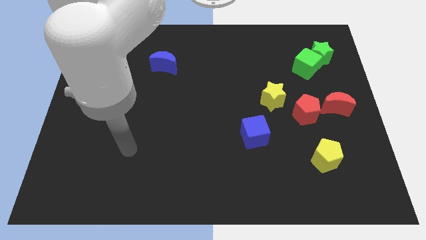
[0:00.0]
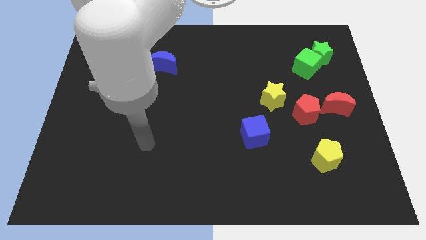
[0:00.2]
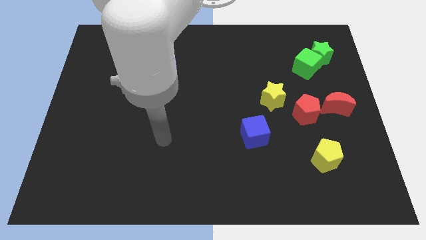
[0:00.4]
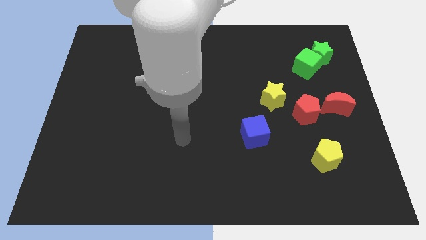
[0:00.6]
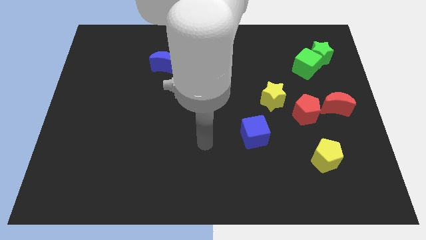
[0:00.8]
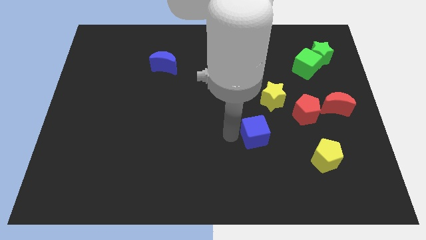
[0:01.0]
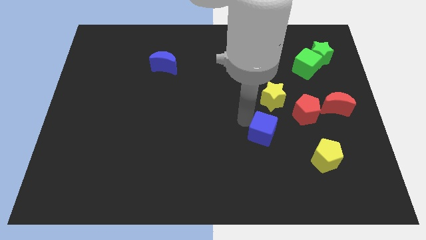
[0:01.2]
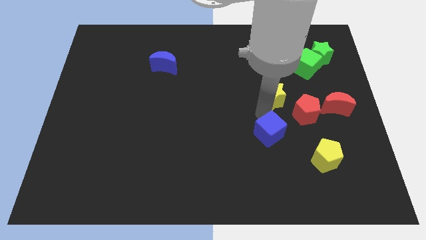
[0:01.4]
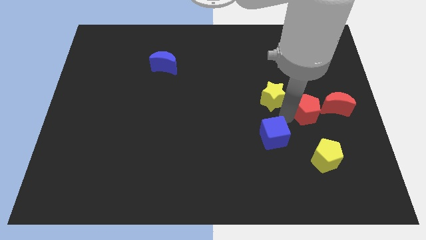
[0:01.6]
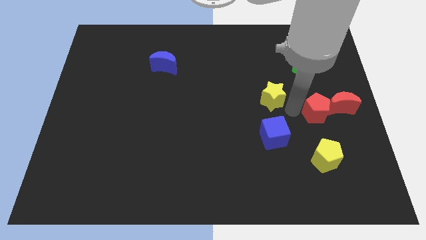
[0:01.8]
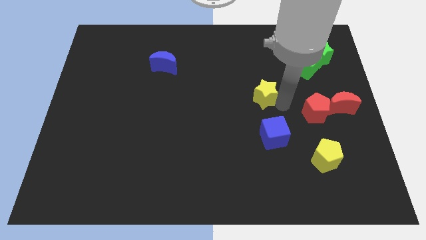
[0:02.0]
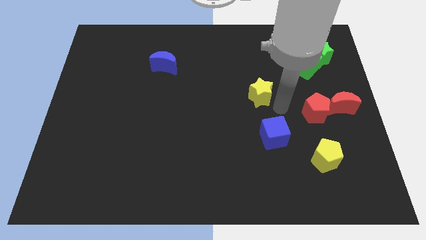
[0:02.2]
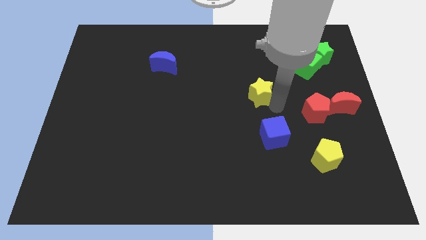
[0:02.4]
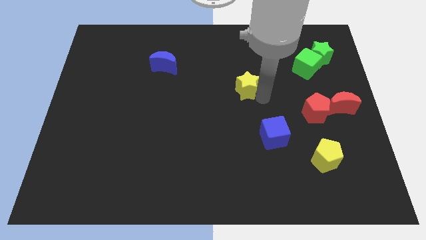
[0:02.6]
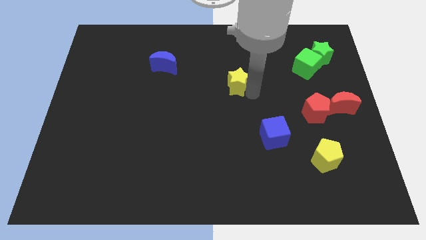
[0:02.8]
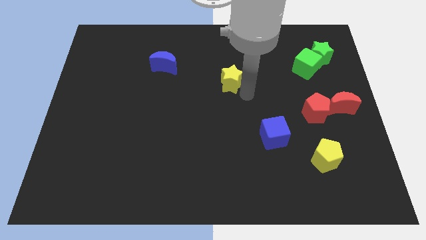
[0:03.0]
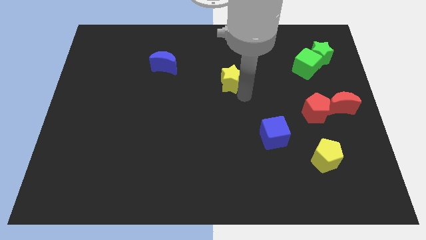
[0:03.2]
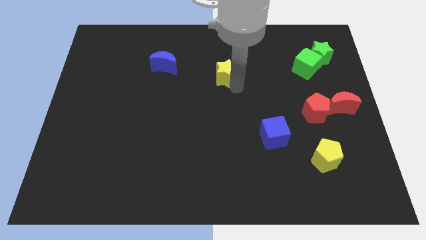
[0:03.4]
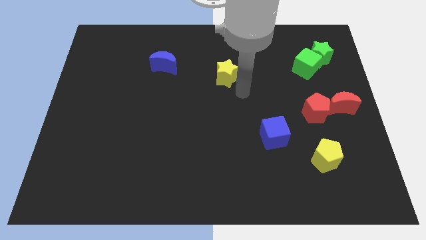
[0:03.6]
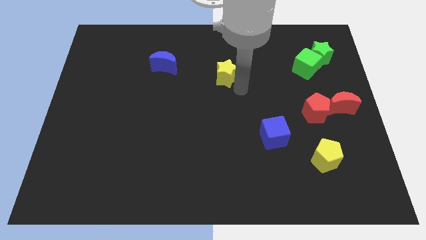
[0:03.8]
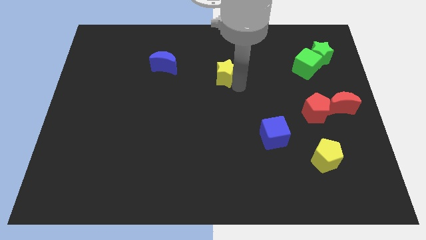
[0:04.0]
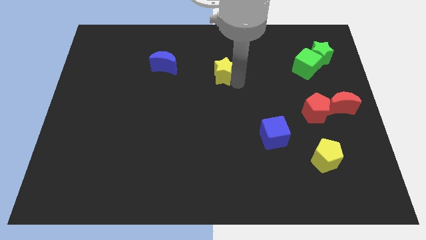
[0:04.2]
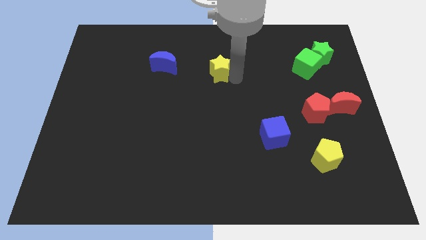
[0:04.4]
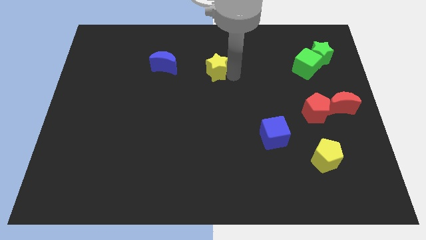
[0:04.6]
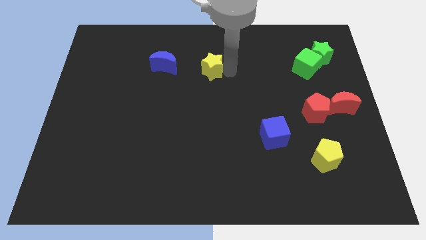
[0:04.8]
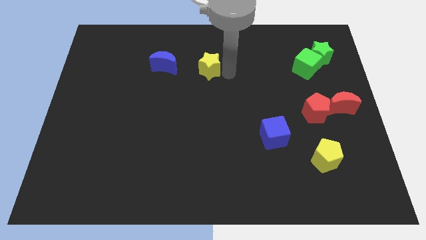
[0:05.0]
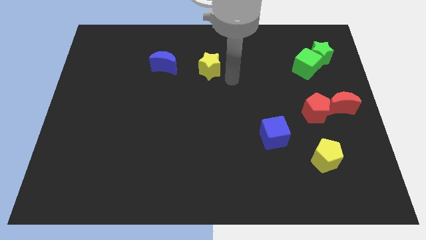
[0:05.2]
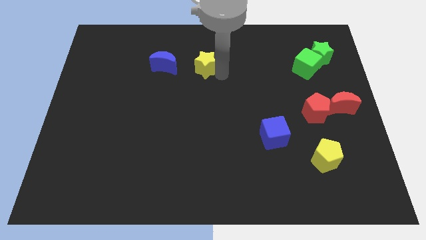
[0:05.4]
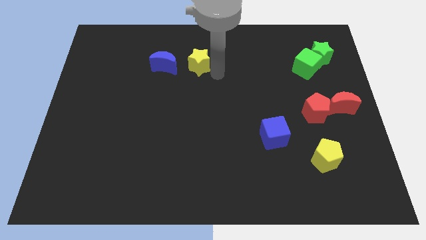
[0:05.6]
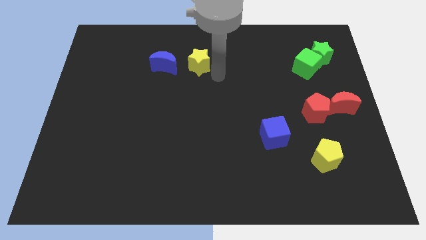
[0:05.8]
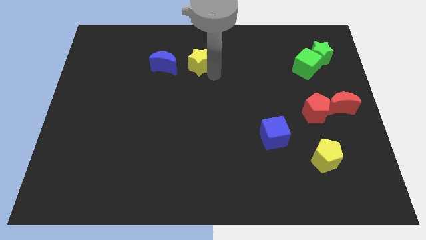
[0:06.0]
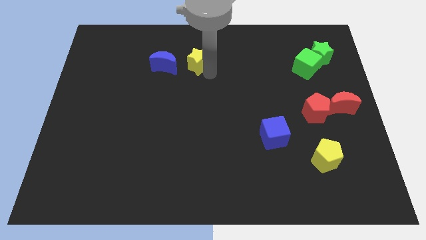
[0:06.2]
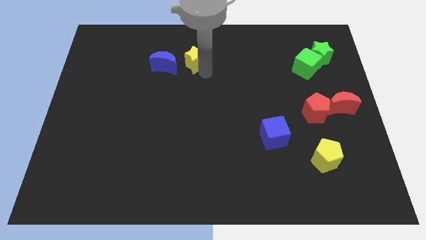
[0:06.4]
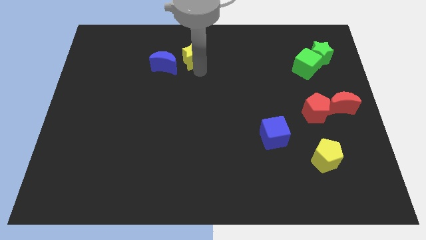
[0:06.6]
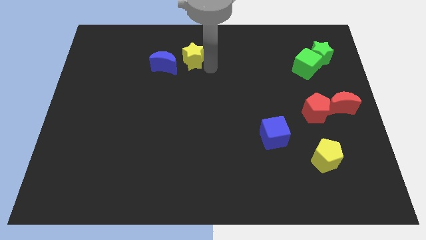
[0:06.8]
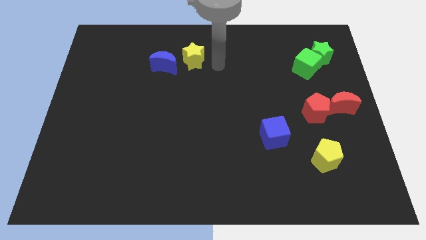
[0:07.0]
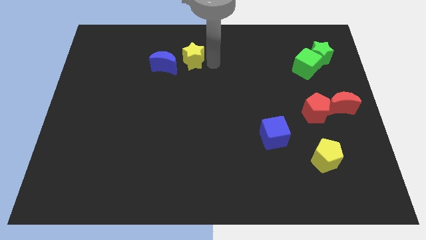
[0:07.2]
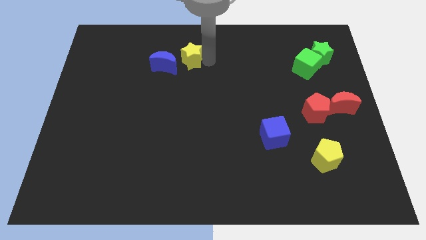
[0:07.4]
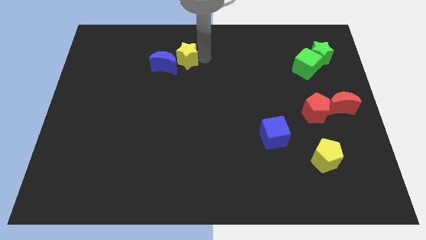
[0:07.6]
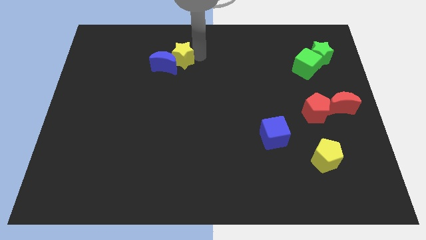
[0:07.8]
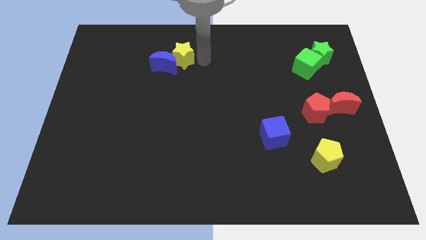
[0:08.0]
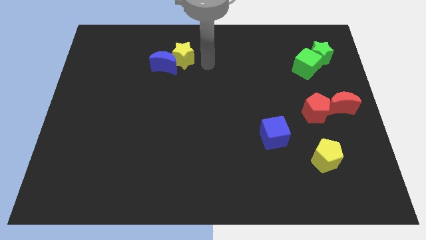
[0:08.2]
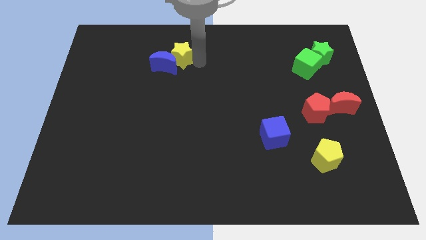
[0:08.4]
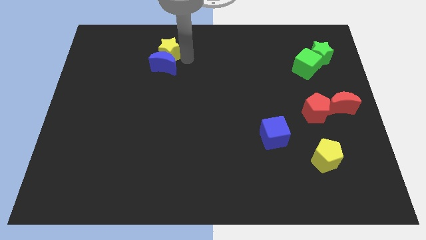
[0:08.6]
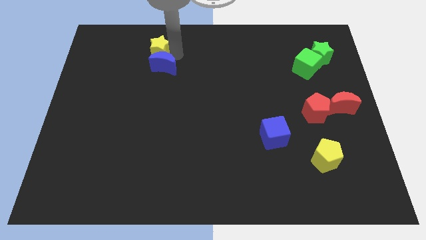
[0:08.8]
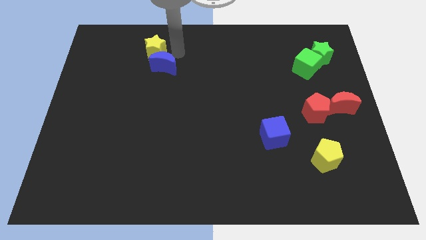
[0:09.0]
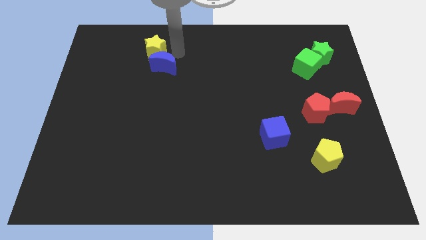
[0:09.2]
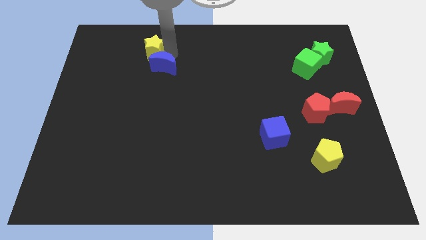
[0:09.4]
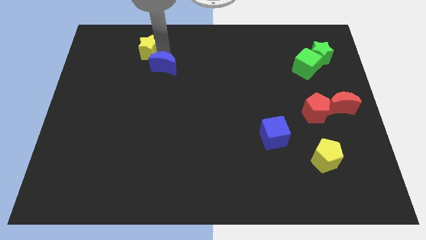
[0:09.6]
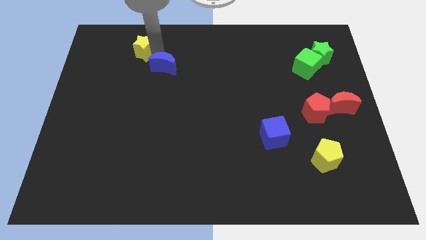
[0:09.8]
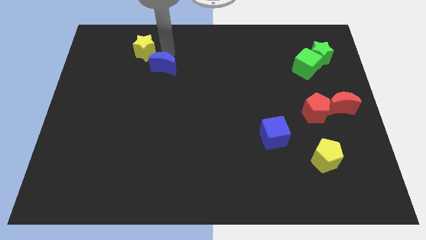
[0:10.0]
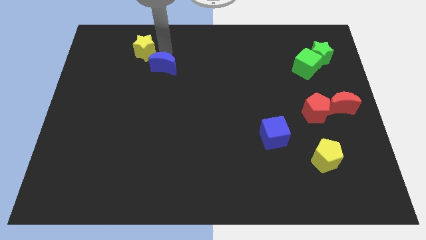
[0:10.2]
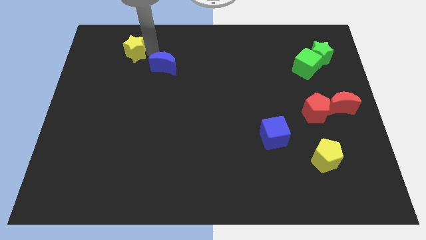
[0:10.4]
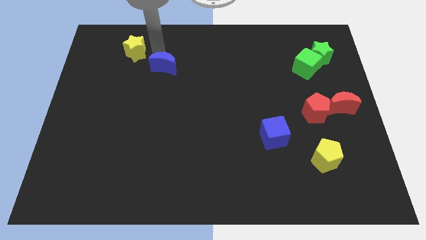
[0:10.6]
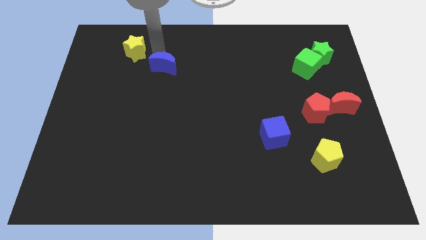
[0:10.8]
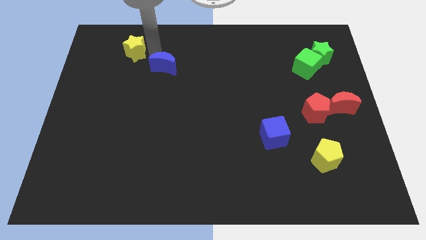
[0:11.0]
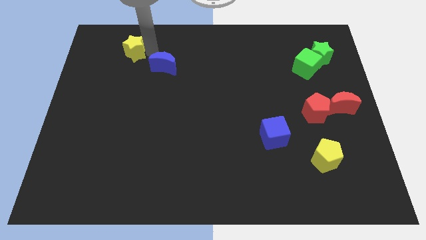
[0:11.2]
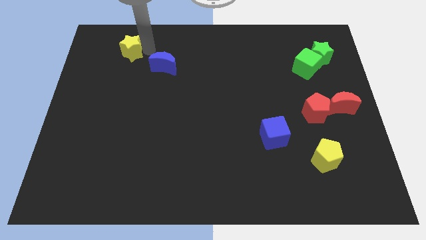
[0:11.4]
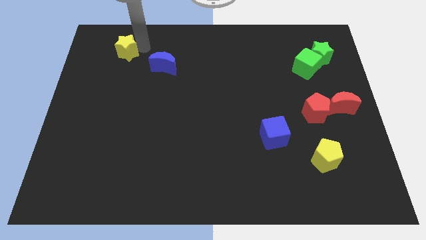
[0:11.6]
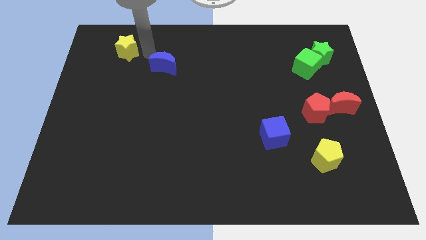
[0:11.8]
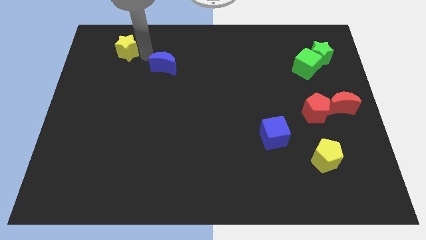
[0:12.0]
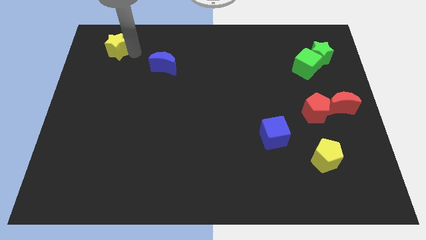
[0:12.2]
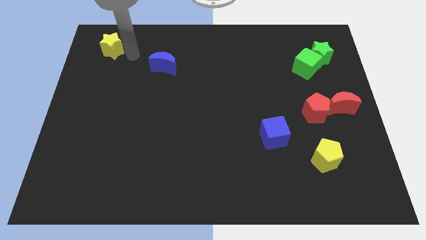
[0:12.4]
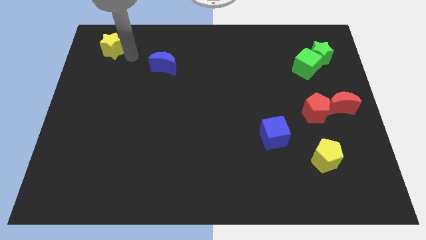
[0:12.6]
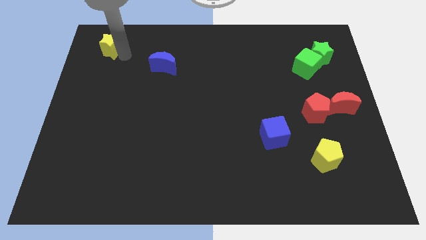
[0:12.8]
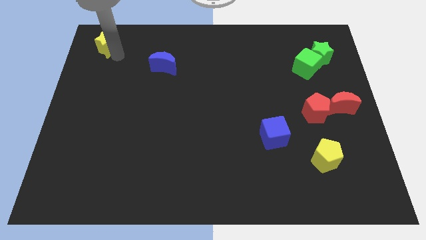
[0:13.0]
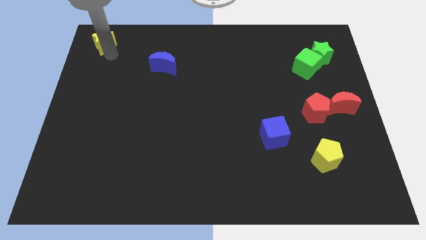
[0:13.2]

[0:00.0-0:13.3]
slide the yellow star to the top left
